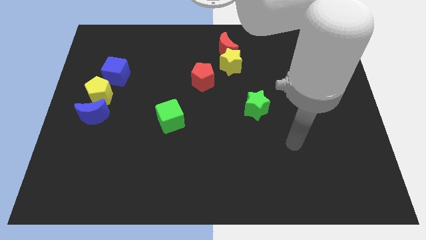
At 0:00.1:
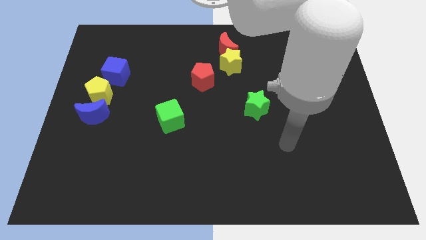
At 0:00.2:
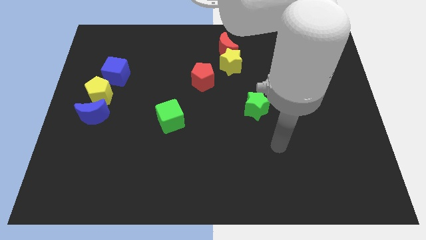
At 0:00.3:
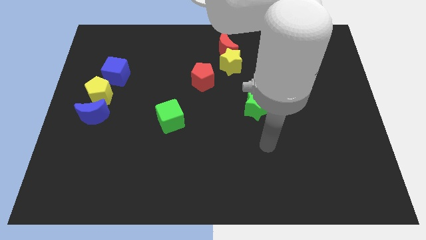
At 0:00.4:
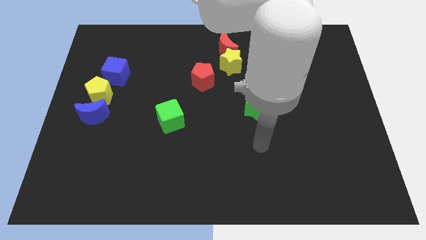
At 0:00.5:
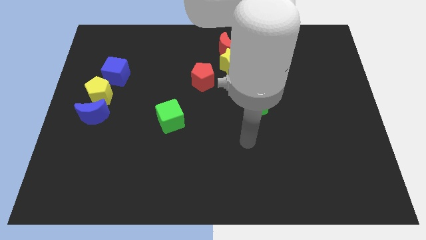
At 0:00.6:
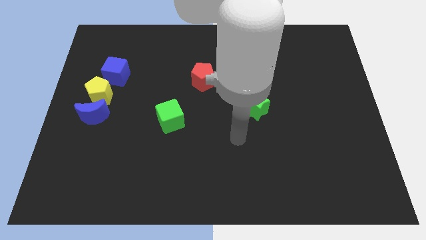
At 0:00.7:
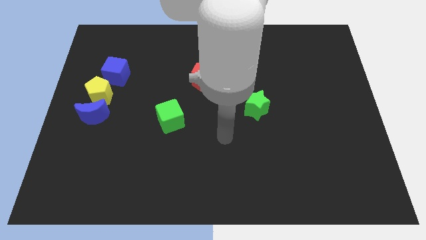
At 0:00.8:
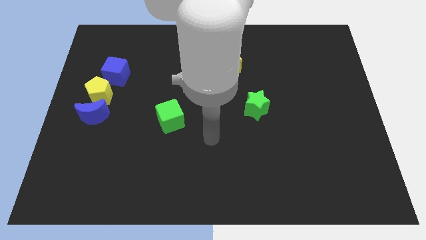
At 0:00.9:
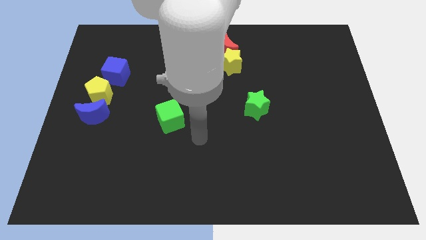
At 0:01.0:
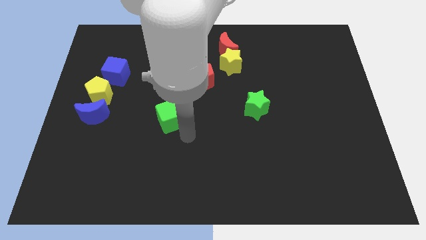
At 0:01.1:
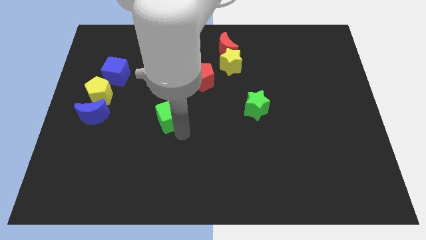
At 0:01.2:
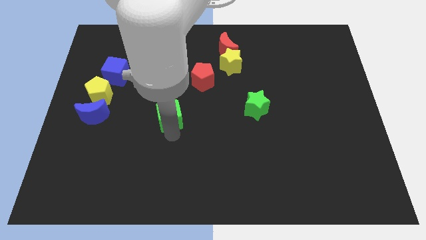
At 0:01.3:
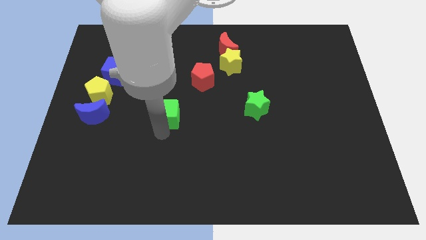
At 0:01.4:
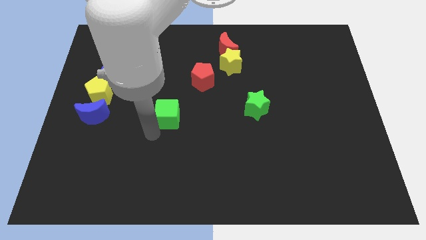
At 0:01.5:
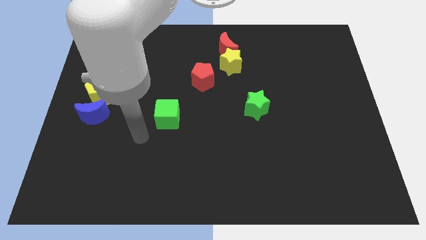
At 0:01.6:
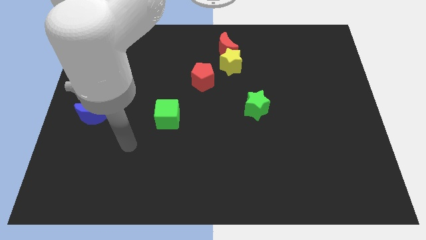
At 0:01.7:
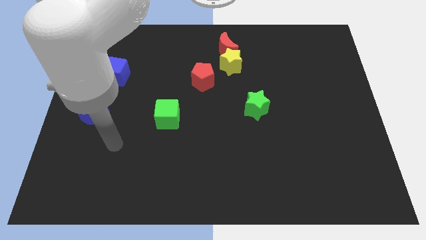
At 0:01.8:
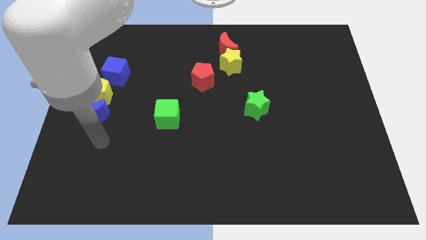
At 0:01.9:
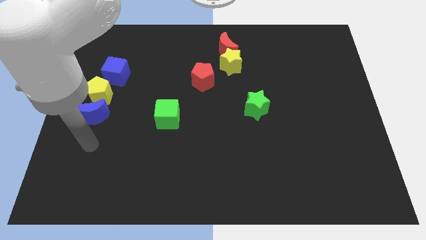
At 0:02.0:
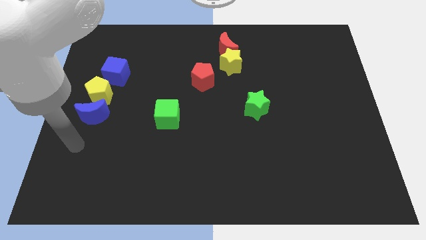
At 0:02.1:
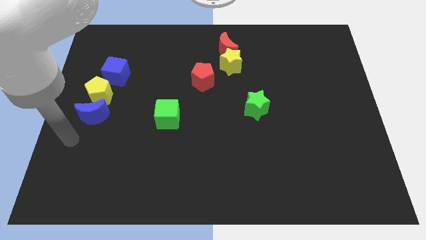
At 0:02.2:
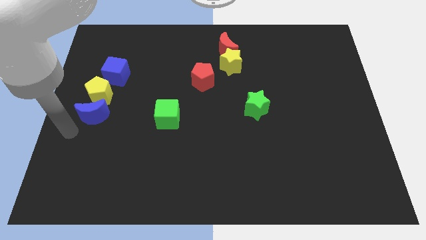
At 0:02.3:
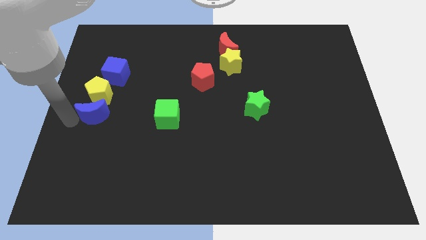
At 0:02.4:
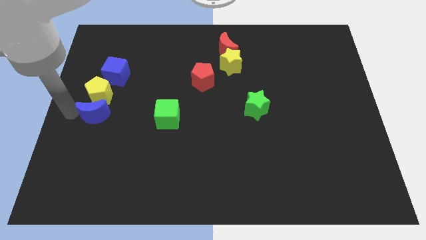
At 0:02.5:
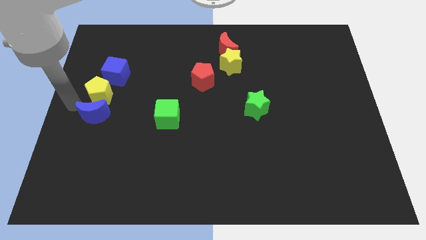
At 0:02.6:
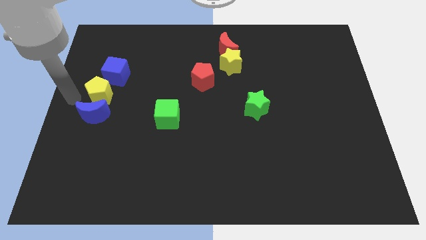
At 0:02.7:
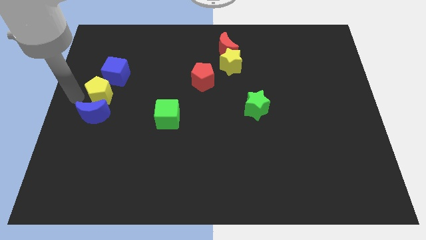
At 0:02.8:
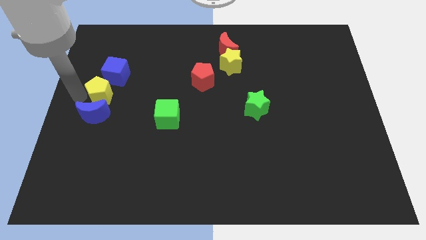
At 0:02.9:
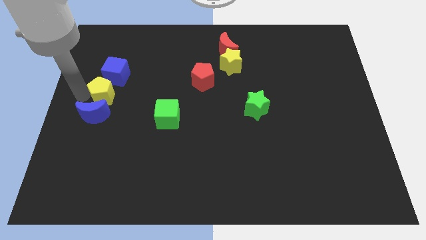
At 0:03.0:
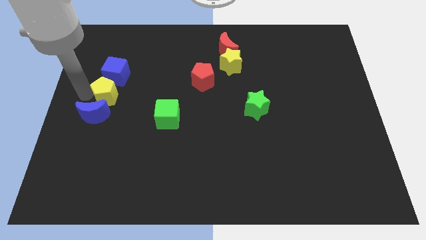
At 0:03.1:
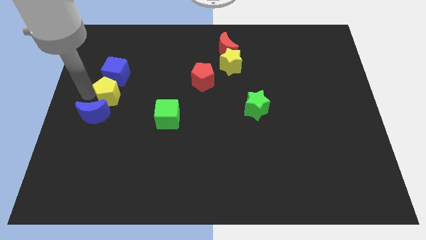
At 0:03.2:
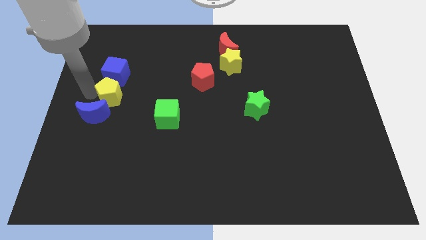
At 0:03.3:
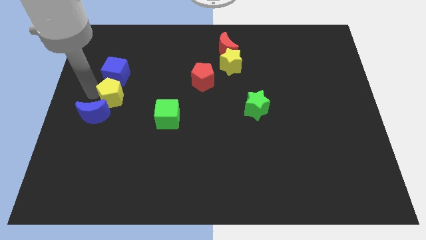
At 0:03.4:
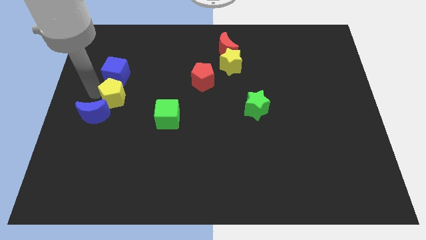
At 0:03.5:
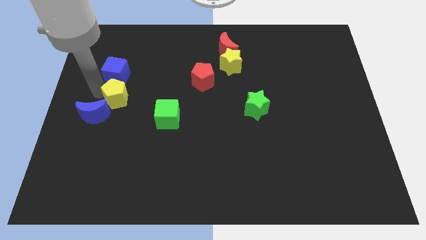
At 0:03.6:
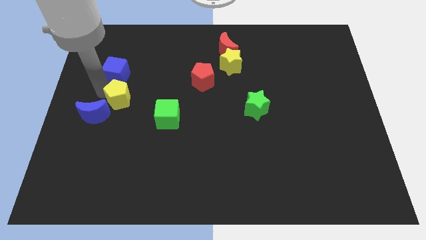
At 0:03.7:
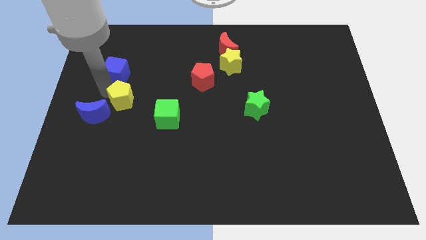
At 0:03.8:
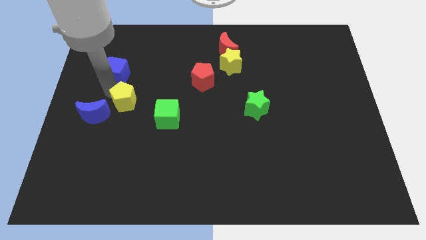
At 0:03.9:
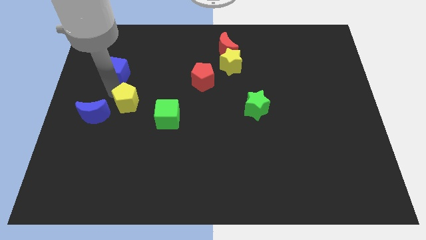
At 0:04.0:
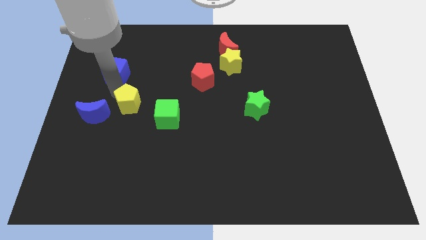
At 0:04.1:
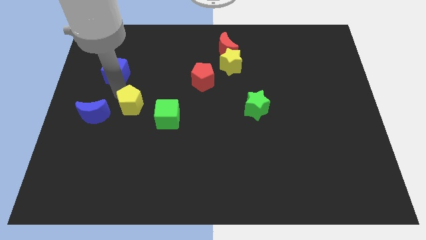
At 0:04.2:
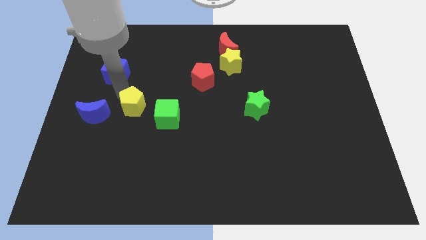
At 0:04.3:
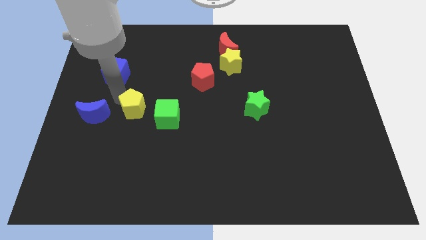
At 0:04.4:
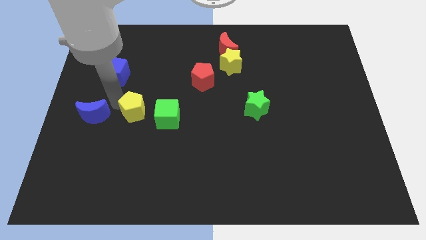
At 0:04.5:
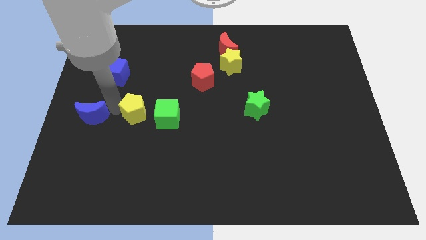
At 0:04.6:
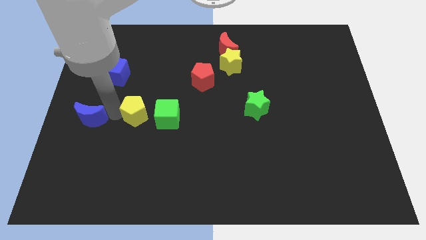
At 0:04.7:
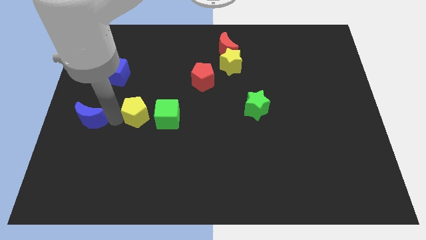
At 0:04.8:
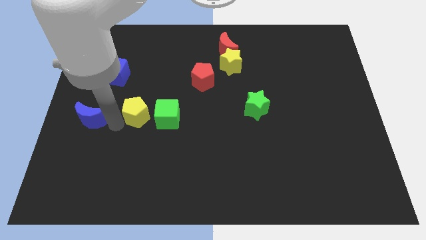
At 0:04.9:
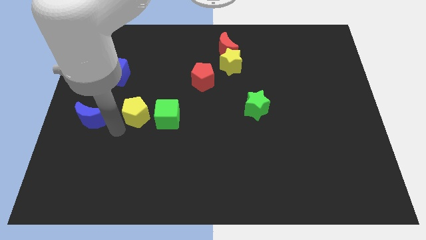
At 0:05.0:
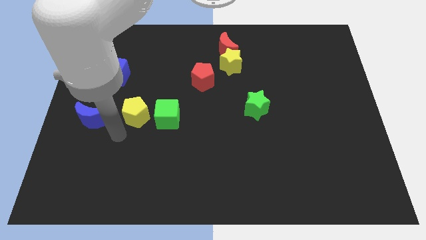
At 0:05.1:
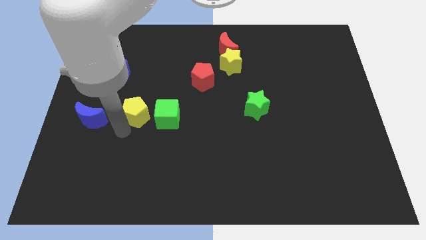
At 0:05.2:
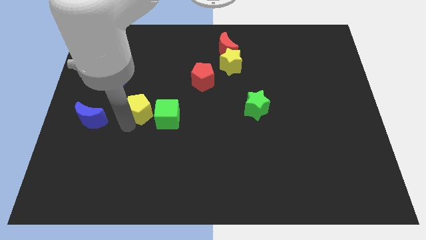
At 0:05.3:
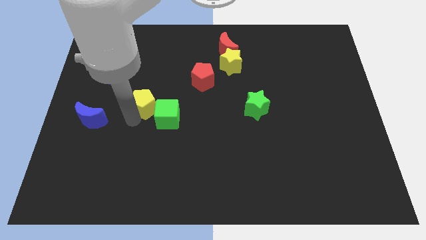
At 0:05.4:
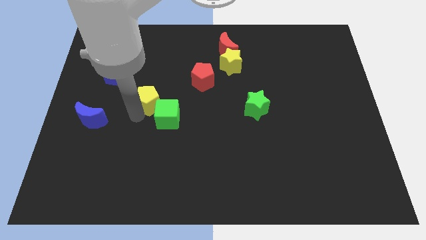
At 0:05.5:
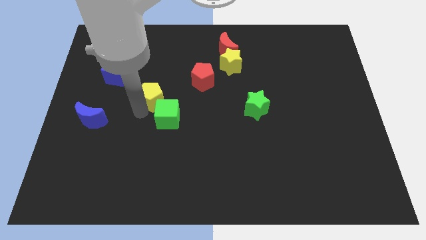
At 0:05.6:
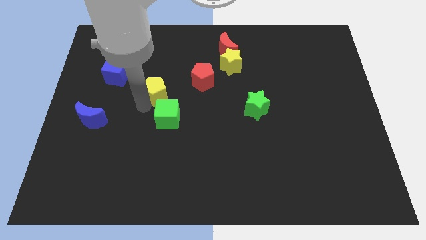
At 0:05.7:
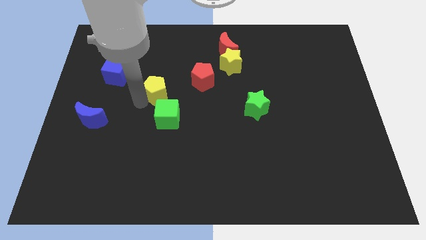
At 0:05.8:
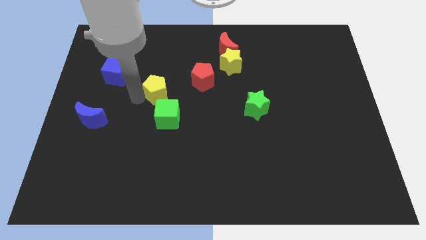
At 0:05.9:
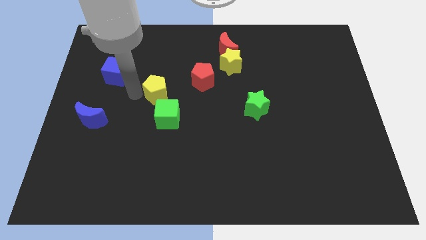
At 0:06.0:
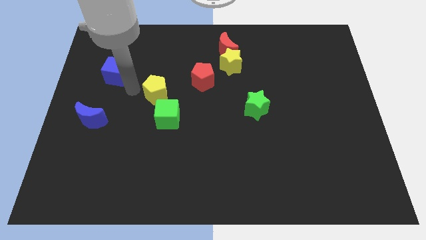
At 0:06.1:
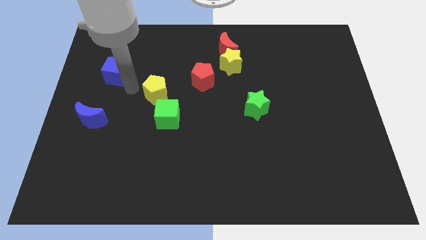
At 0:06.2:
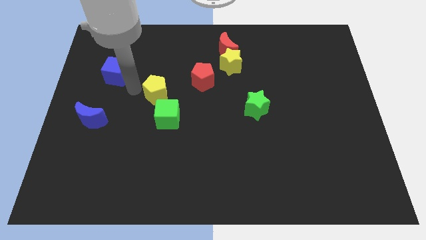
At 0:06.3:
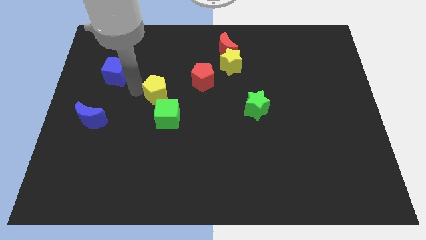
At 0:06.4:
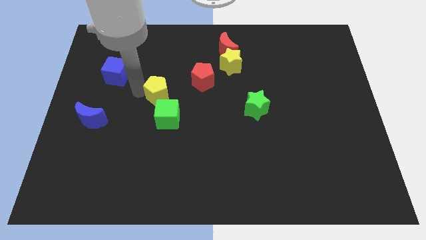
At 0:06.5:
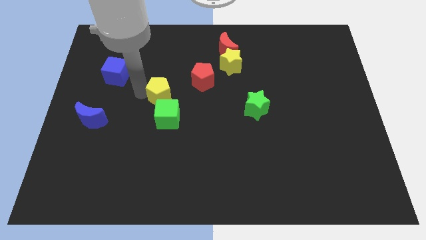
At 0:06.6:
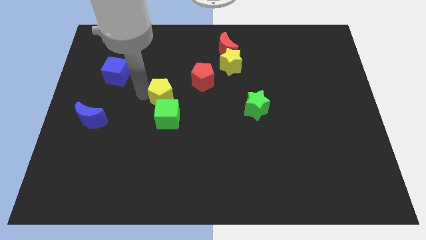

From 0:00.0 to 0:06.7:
put the yellow pentagon to the center of the board
